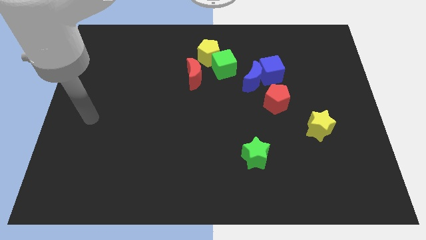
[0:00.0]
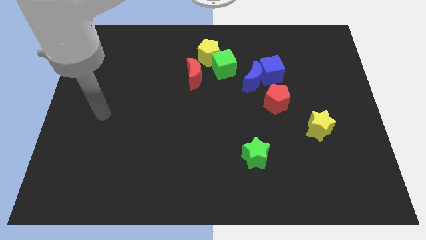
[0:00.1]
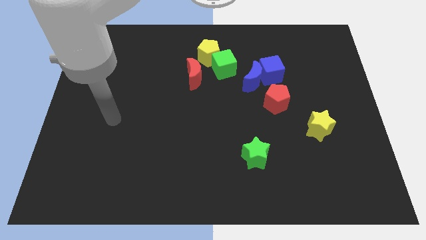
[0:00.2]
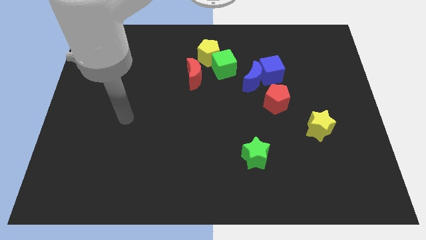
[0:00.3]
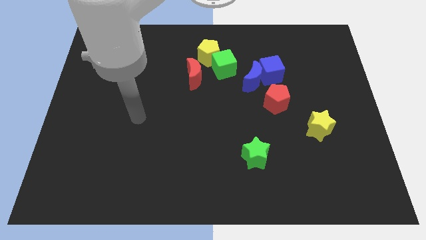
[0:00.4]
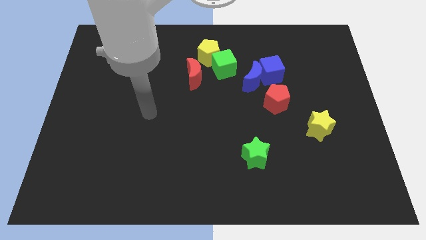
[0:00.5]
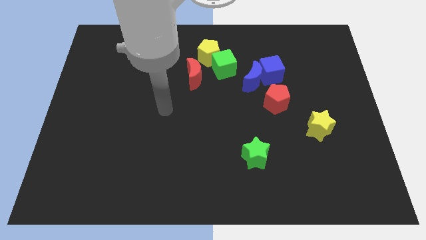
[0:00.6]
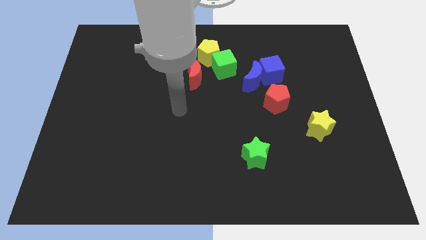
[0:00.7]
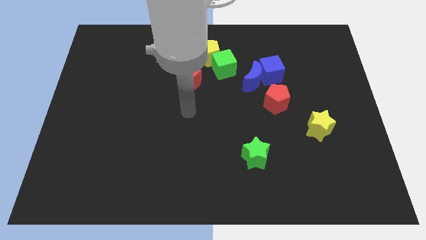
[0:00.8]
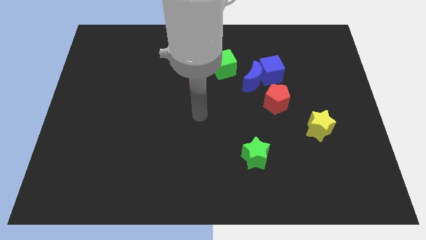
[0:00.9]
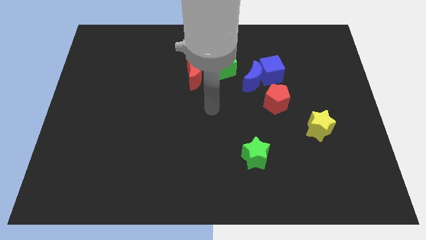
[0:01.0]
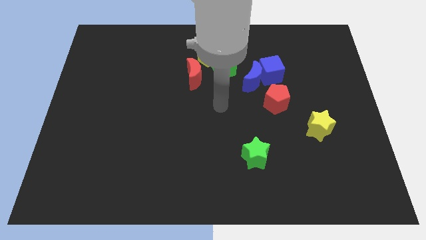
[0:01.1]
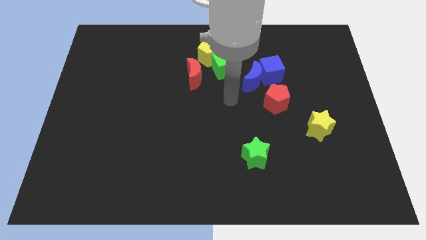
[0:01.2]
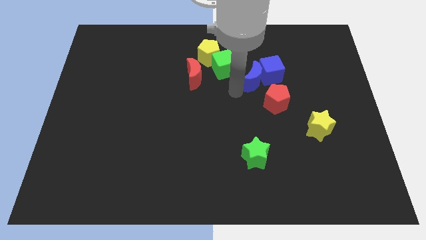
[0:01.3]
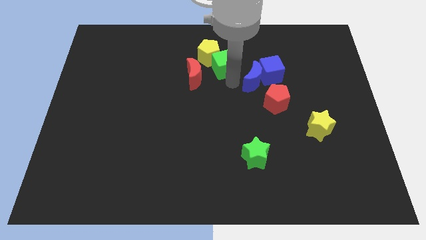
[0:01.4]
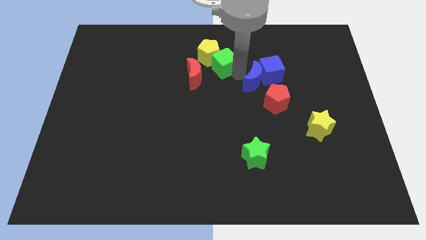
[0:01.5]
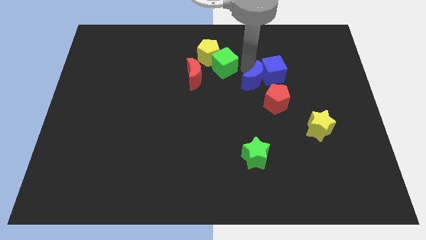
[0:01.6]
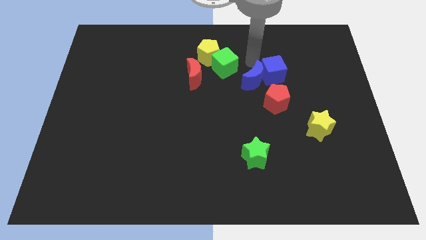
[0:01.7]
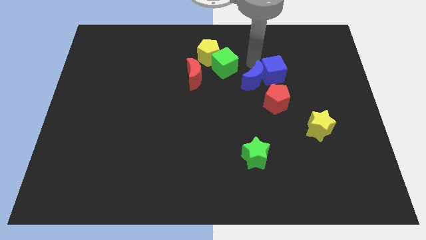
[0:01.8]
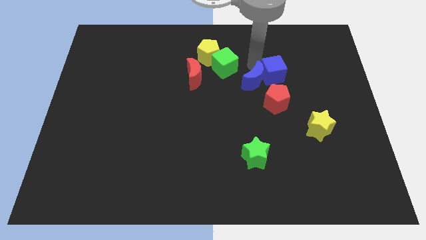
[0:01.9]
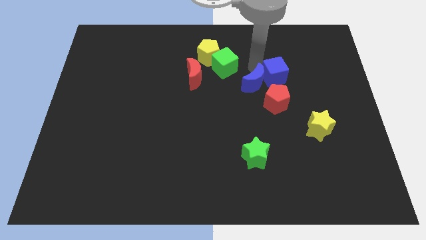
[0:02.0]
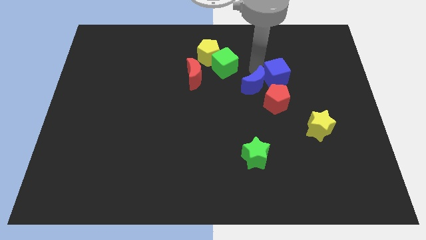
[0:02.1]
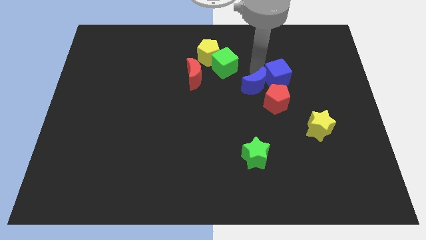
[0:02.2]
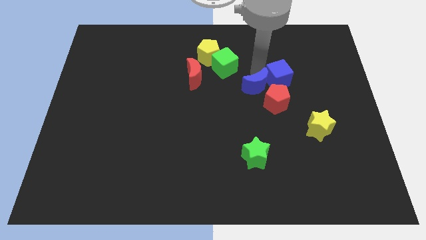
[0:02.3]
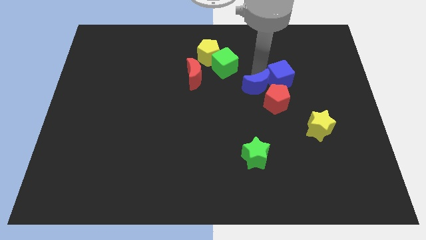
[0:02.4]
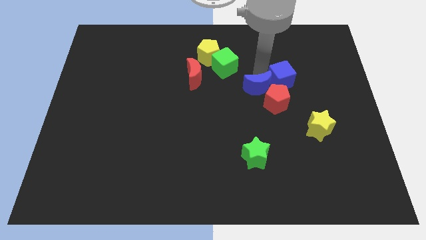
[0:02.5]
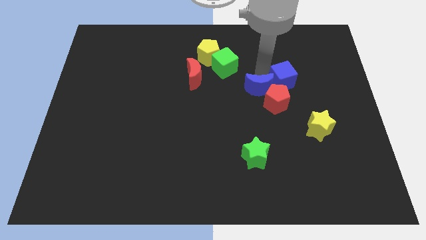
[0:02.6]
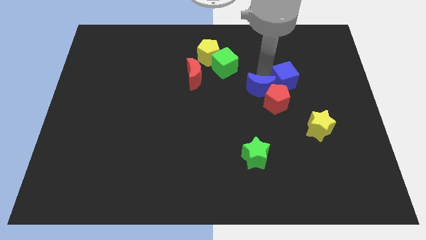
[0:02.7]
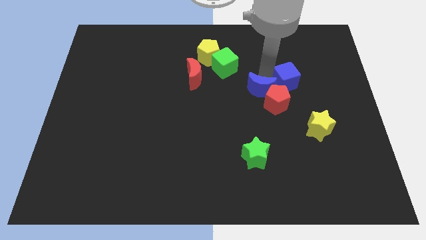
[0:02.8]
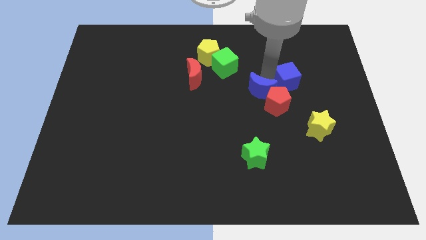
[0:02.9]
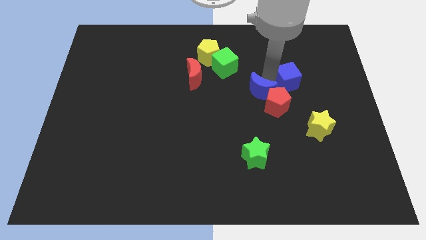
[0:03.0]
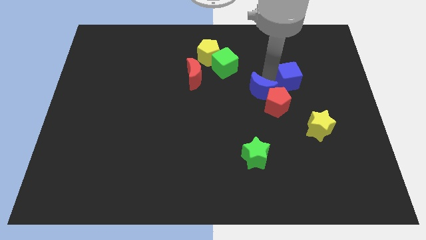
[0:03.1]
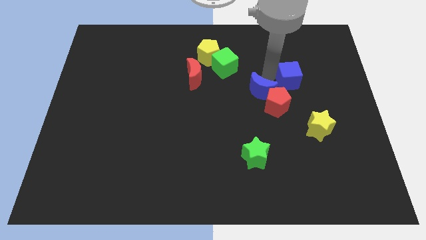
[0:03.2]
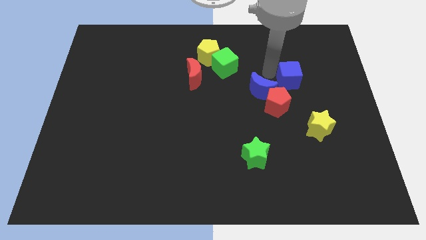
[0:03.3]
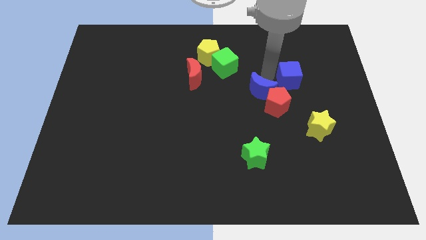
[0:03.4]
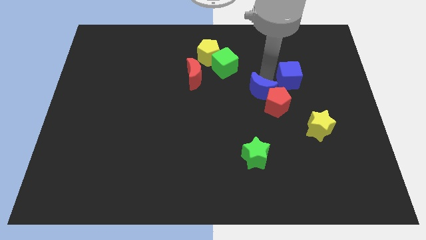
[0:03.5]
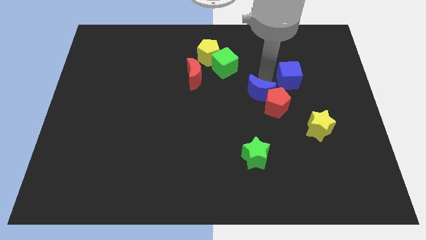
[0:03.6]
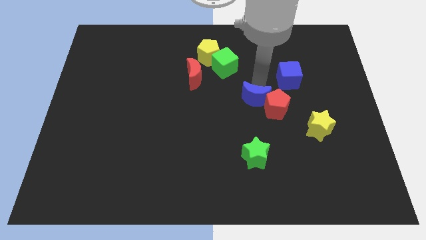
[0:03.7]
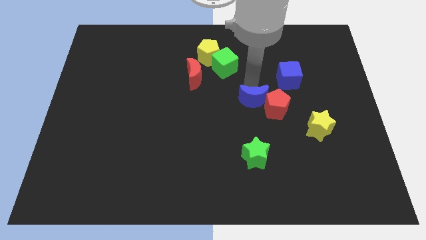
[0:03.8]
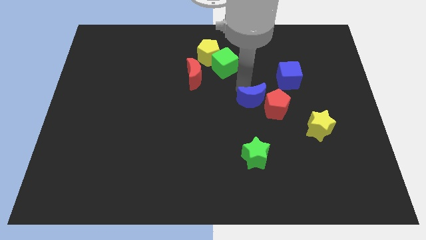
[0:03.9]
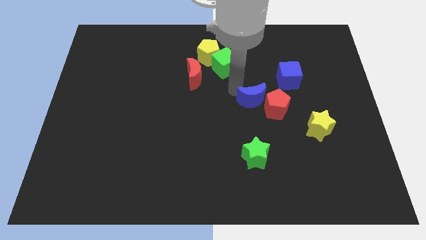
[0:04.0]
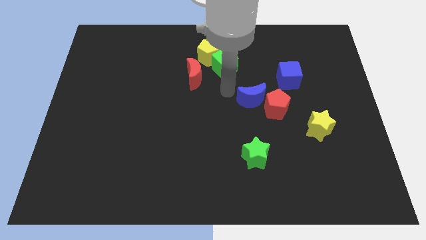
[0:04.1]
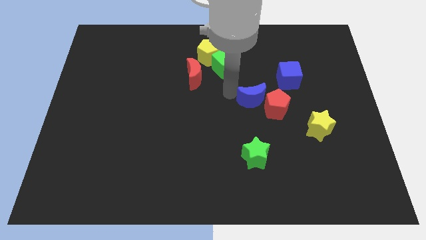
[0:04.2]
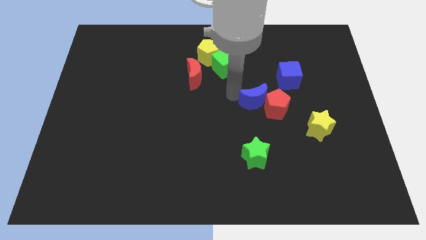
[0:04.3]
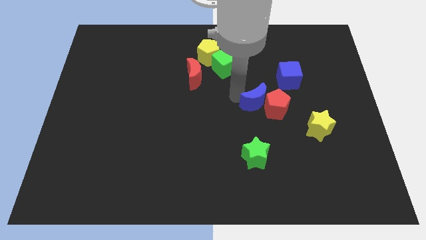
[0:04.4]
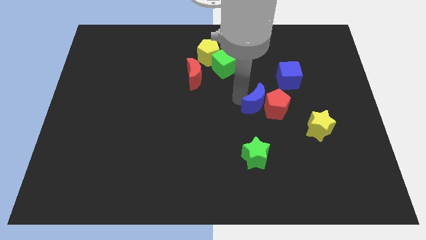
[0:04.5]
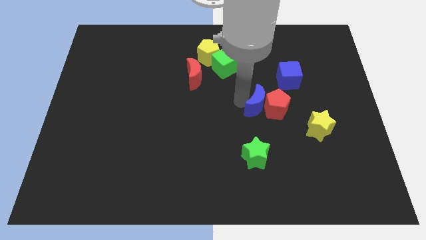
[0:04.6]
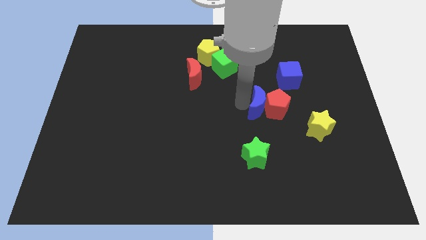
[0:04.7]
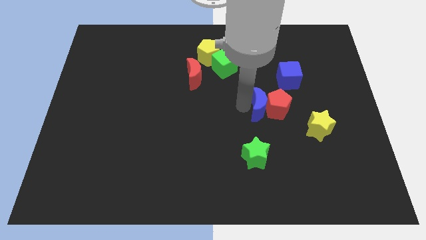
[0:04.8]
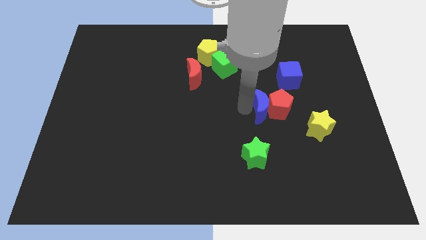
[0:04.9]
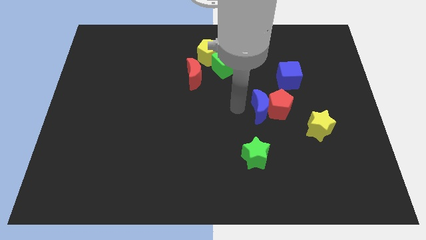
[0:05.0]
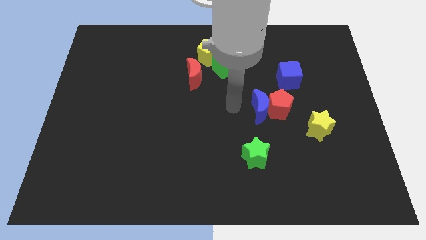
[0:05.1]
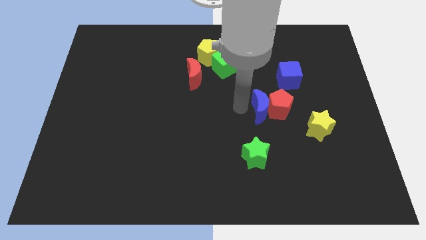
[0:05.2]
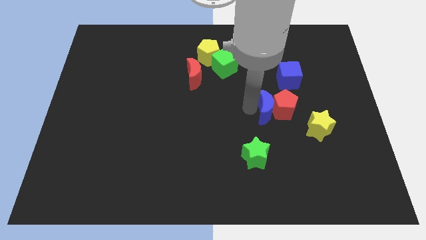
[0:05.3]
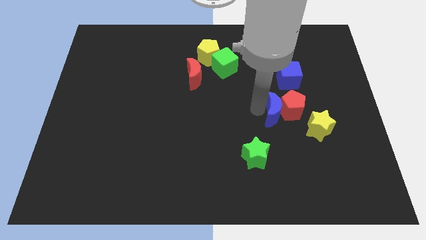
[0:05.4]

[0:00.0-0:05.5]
push the blue moon to the bottom of the blue cube

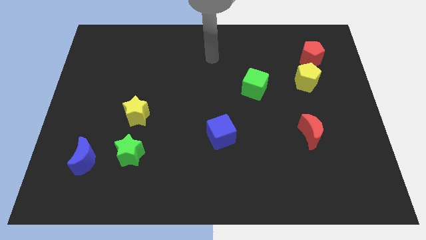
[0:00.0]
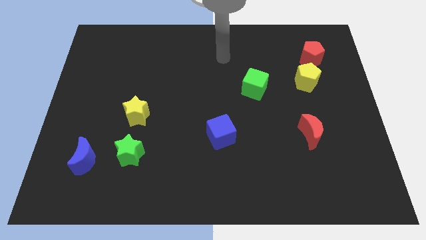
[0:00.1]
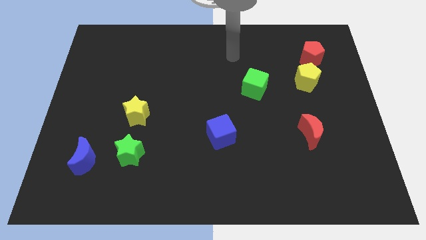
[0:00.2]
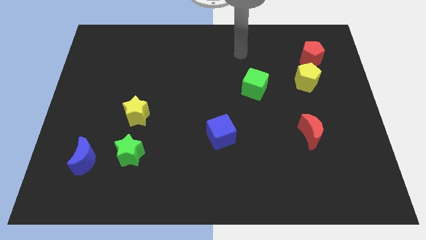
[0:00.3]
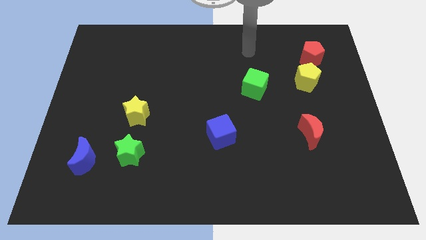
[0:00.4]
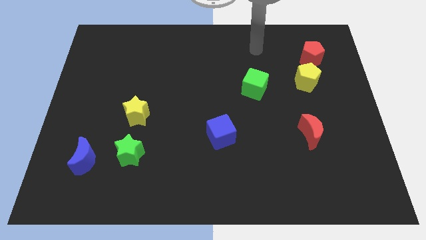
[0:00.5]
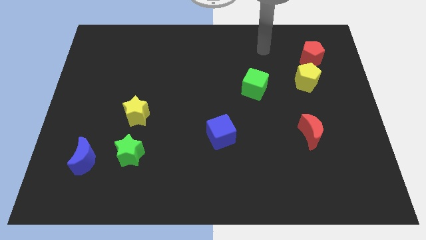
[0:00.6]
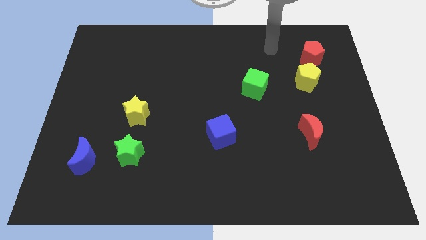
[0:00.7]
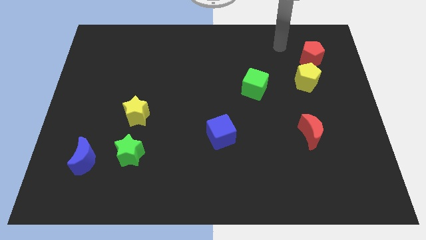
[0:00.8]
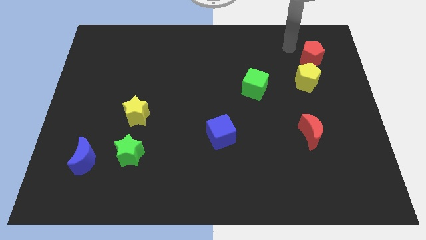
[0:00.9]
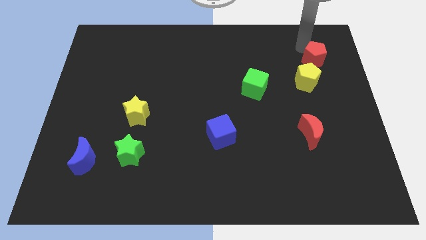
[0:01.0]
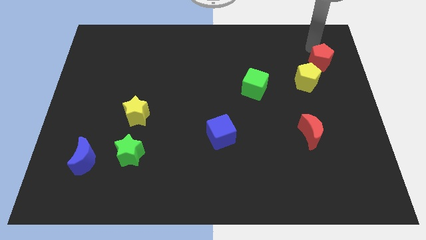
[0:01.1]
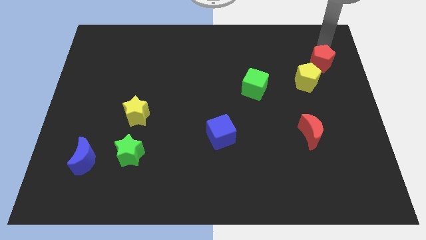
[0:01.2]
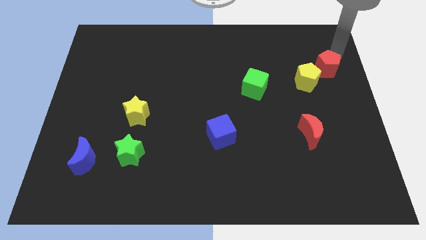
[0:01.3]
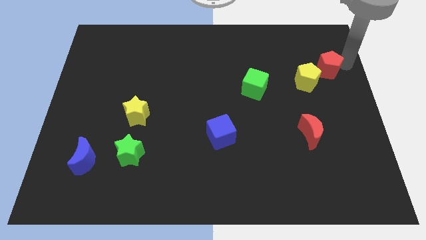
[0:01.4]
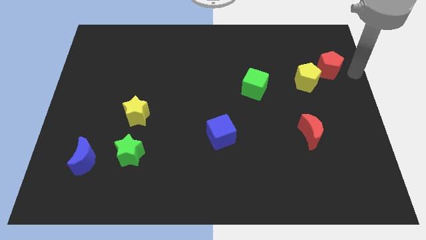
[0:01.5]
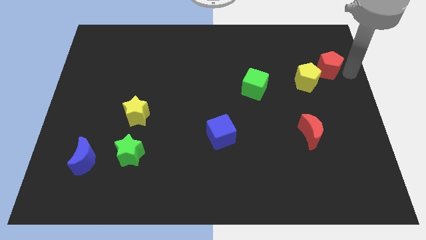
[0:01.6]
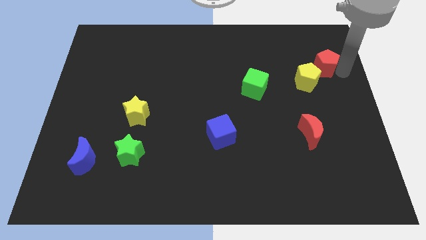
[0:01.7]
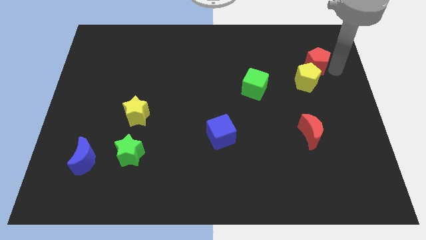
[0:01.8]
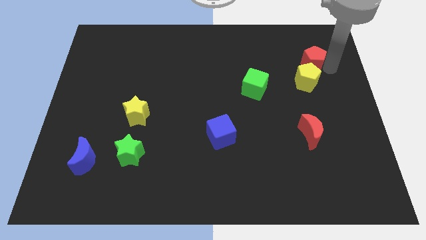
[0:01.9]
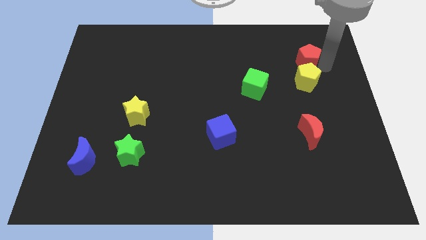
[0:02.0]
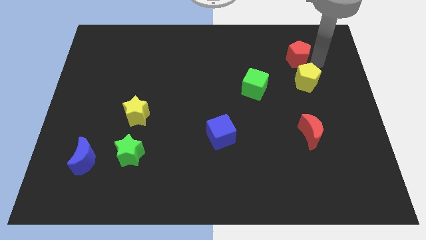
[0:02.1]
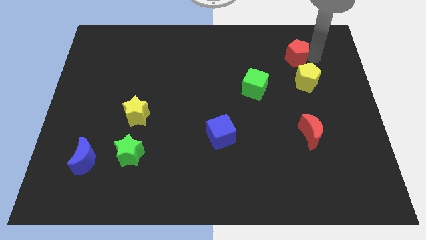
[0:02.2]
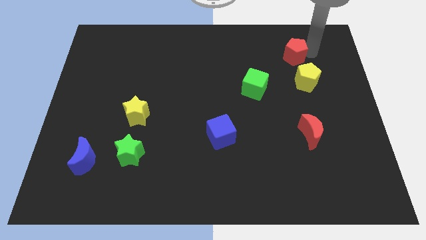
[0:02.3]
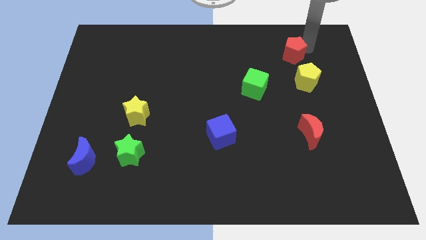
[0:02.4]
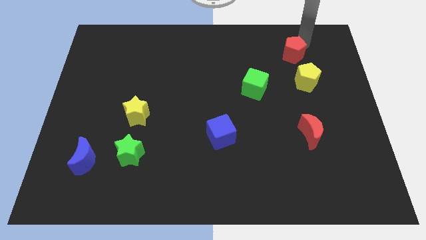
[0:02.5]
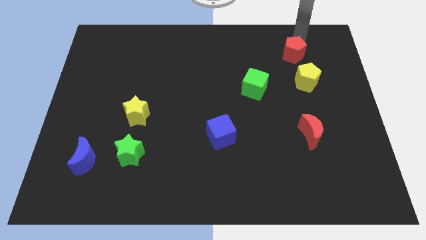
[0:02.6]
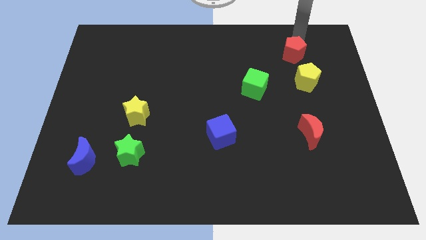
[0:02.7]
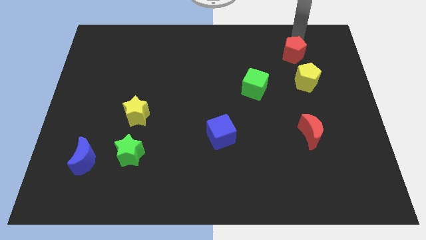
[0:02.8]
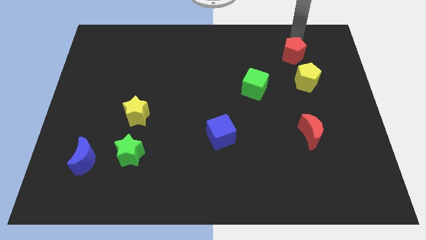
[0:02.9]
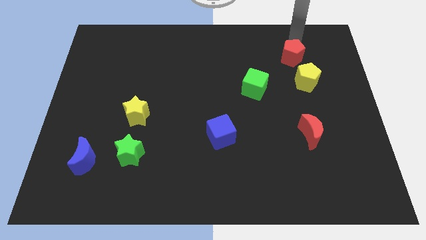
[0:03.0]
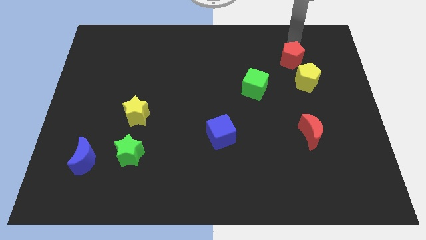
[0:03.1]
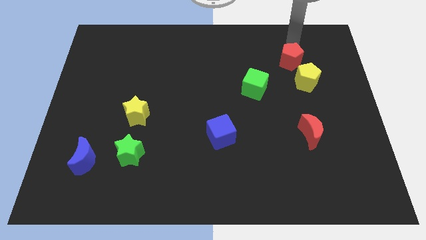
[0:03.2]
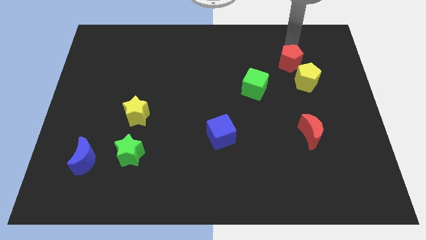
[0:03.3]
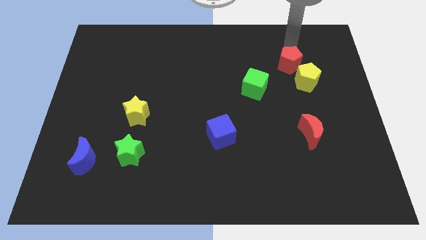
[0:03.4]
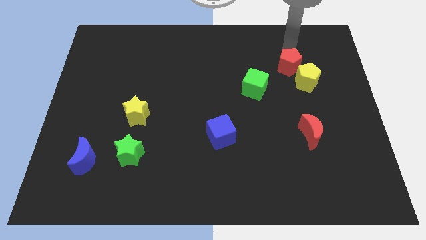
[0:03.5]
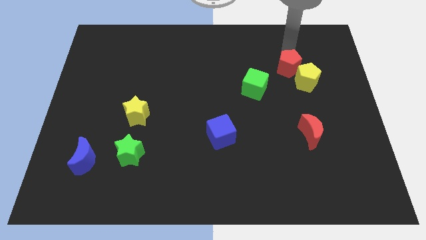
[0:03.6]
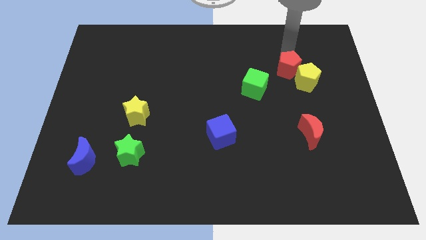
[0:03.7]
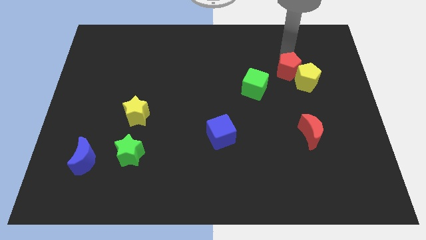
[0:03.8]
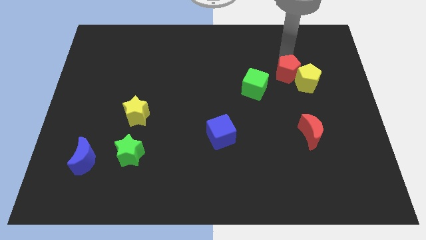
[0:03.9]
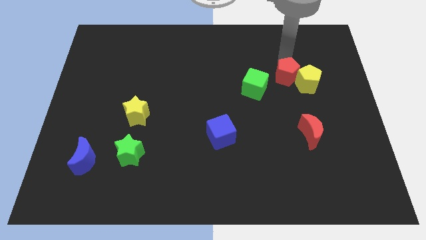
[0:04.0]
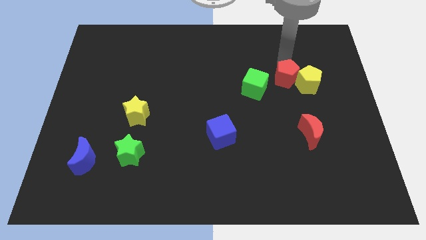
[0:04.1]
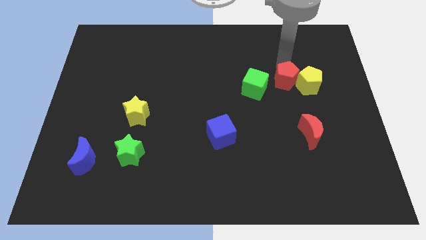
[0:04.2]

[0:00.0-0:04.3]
put the red pentagon diagonally down and to the left of the yellow pentagon
